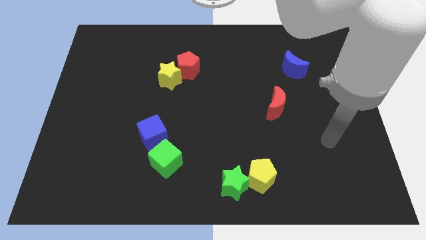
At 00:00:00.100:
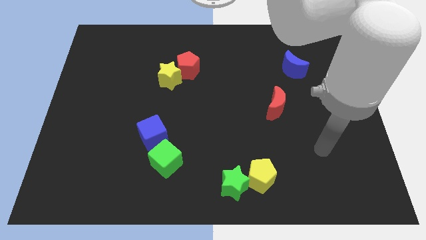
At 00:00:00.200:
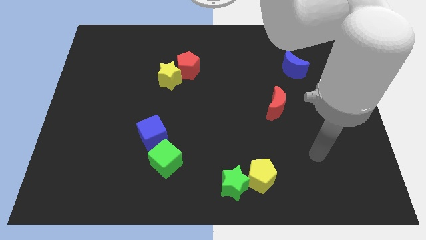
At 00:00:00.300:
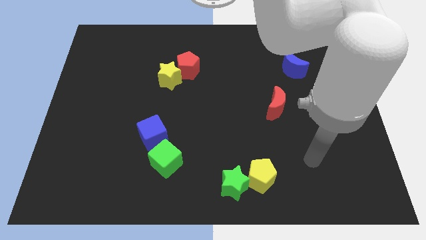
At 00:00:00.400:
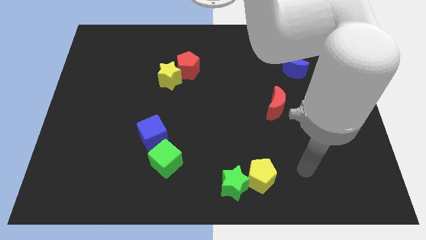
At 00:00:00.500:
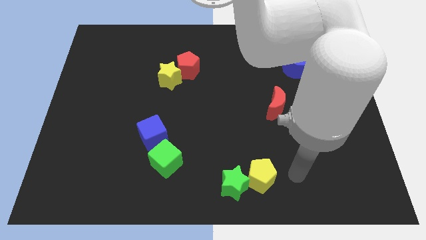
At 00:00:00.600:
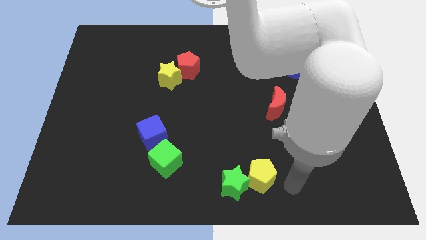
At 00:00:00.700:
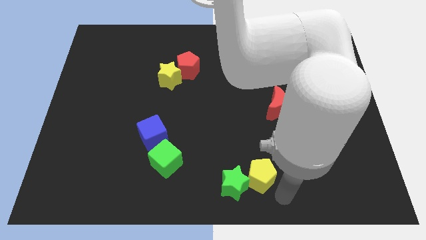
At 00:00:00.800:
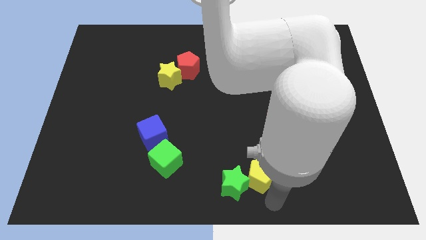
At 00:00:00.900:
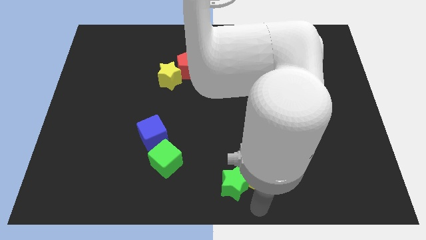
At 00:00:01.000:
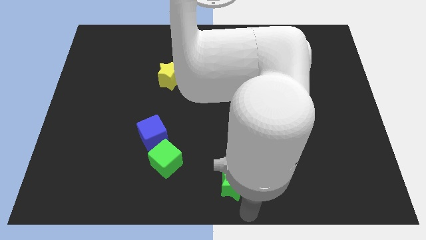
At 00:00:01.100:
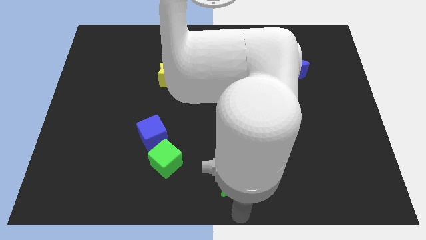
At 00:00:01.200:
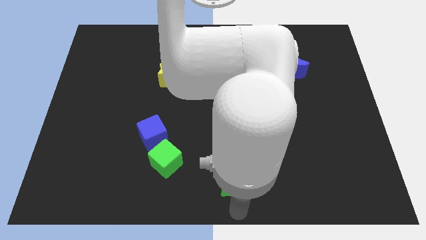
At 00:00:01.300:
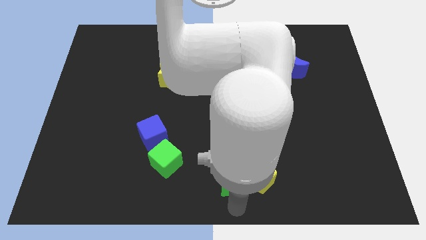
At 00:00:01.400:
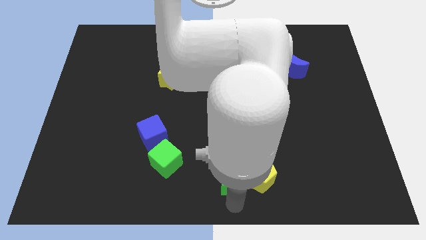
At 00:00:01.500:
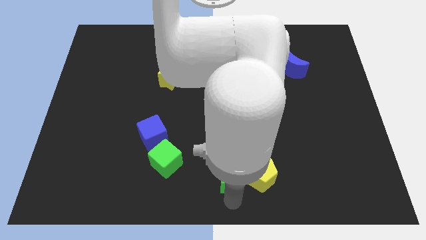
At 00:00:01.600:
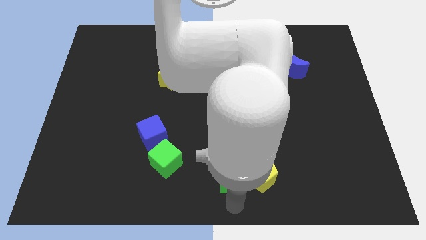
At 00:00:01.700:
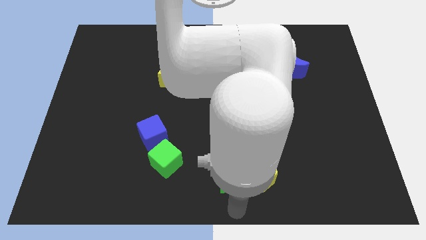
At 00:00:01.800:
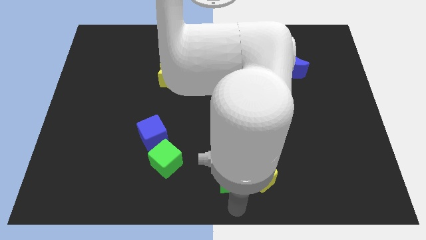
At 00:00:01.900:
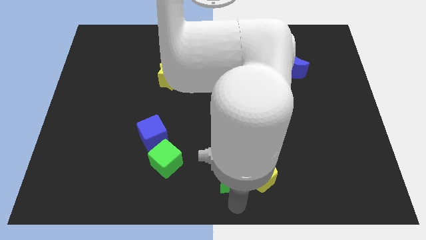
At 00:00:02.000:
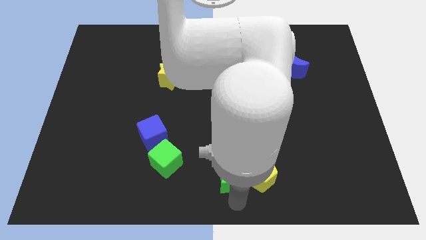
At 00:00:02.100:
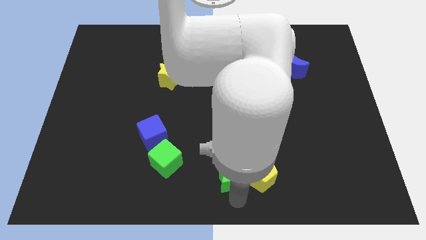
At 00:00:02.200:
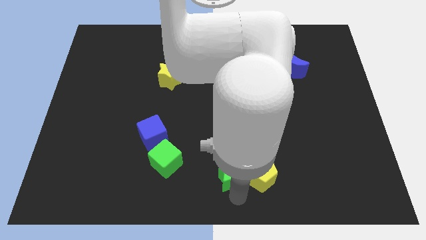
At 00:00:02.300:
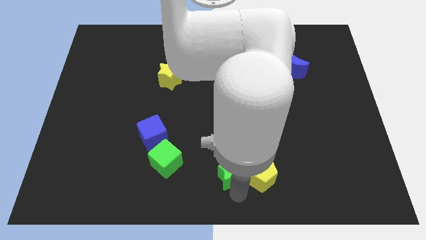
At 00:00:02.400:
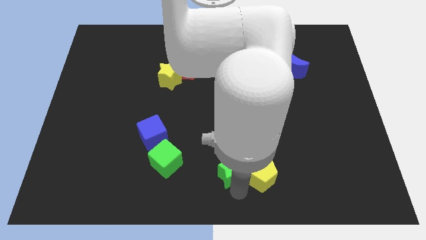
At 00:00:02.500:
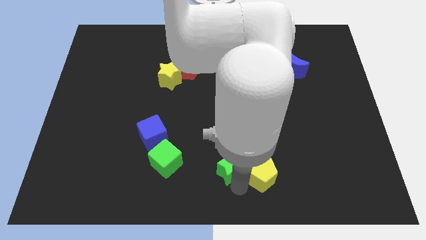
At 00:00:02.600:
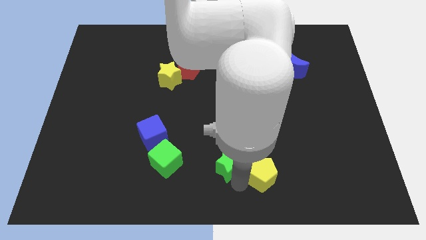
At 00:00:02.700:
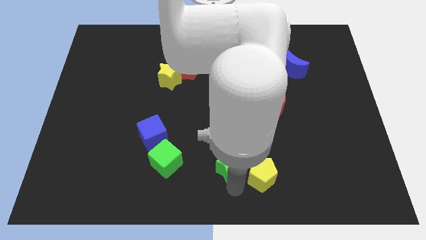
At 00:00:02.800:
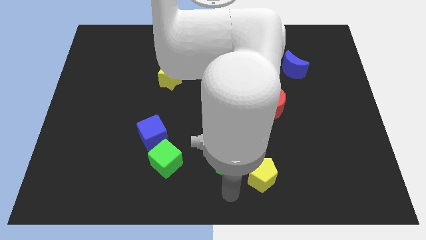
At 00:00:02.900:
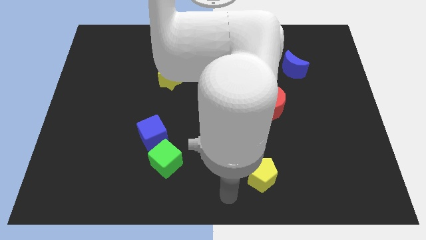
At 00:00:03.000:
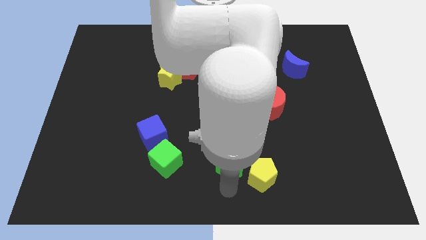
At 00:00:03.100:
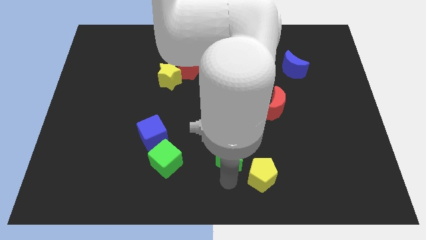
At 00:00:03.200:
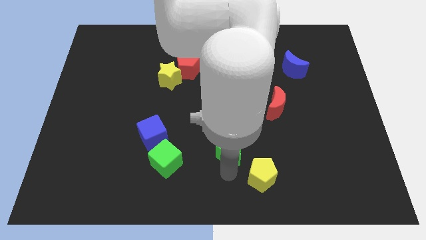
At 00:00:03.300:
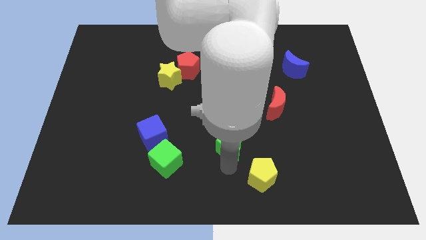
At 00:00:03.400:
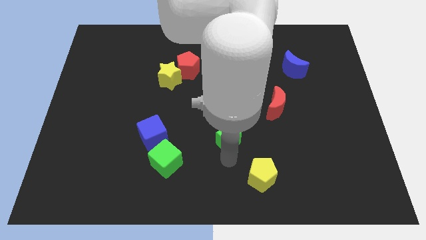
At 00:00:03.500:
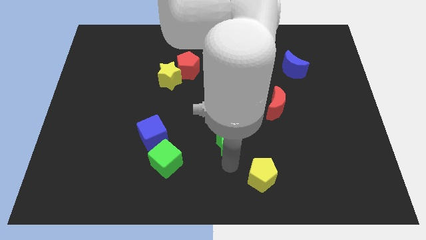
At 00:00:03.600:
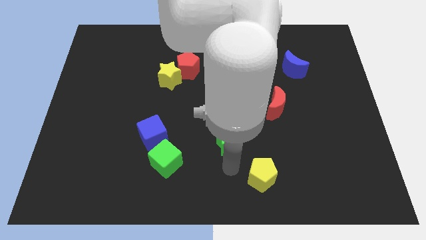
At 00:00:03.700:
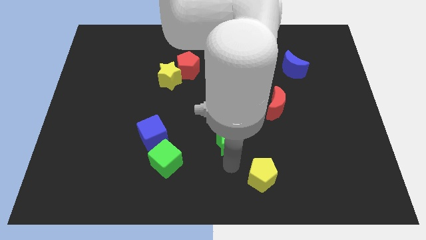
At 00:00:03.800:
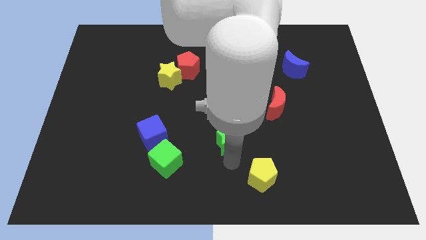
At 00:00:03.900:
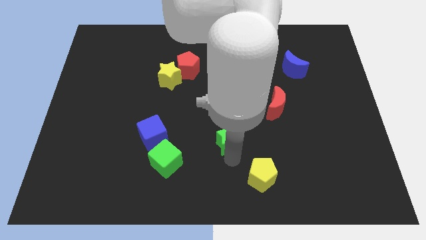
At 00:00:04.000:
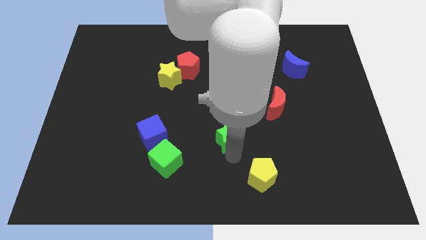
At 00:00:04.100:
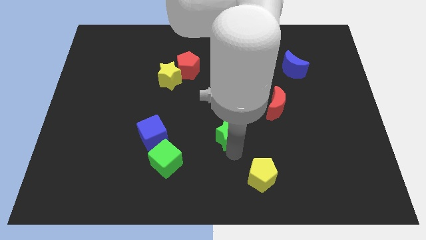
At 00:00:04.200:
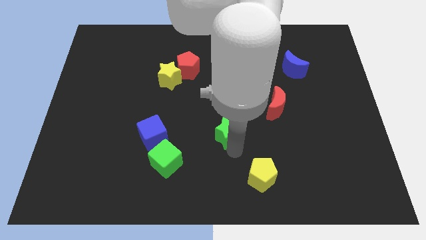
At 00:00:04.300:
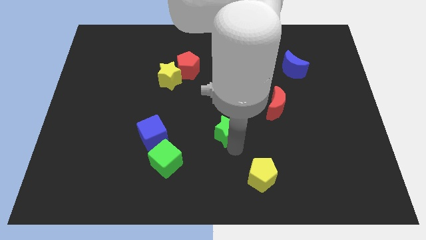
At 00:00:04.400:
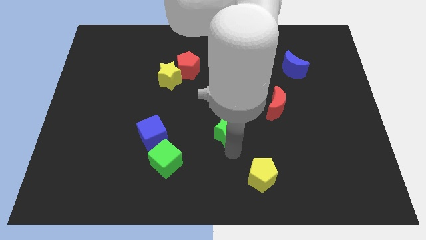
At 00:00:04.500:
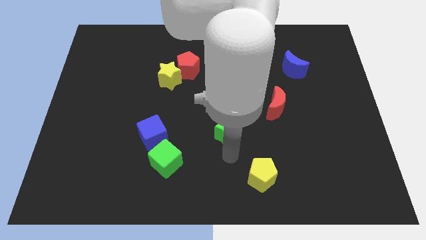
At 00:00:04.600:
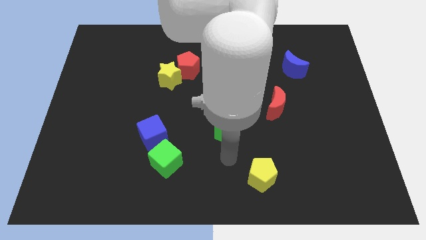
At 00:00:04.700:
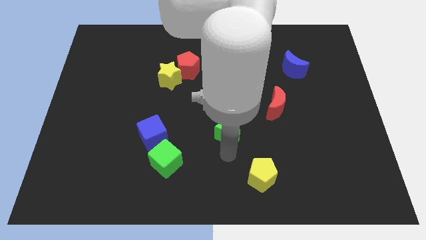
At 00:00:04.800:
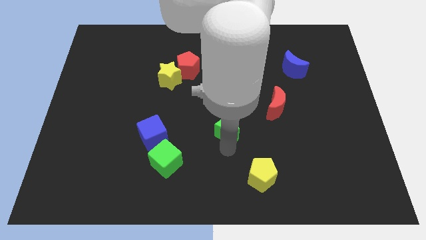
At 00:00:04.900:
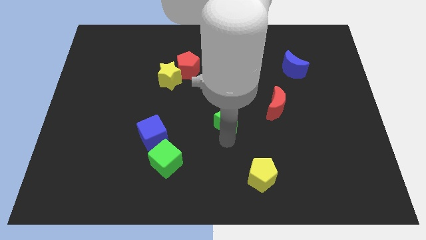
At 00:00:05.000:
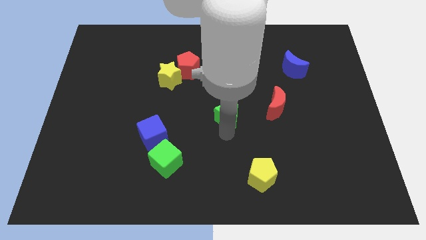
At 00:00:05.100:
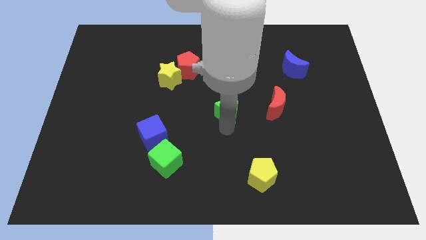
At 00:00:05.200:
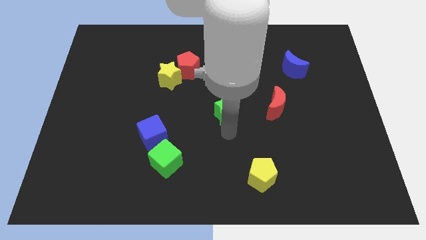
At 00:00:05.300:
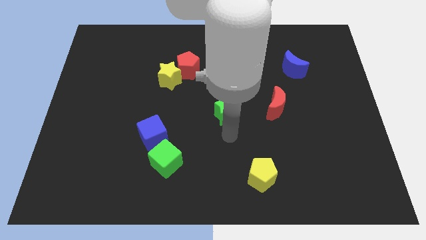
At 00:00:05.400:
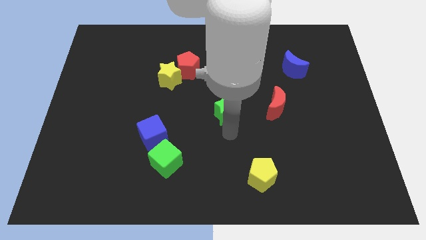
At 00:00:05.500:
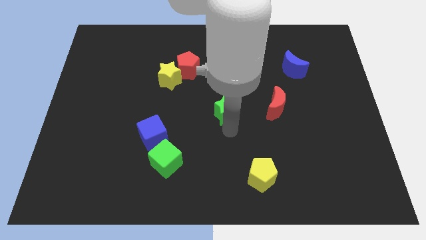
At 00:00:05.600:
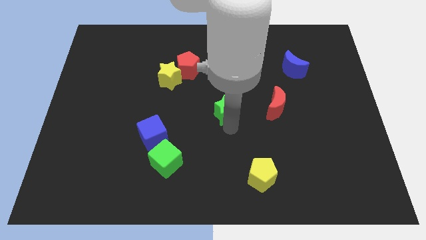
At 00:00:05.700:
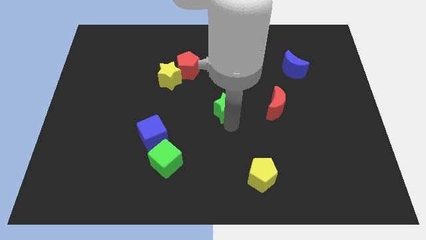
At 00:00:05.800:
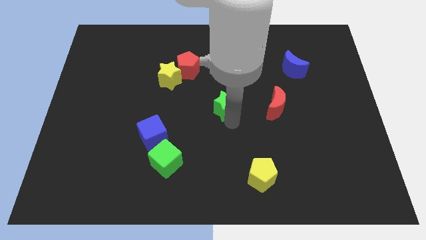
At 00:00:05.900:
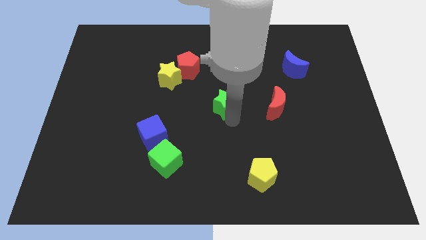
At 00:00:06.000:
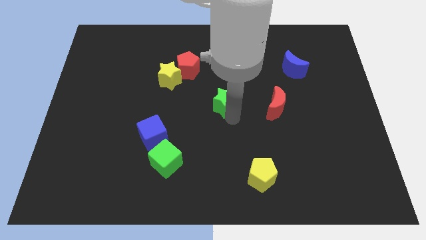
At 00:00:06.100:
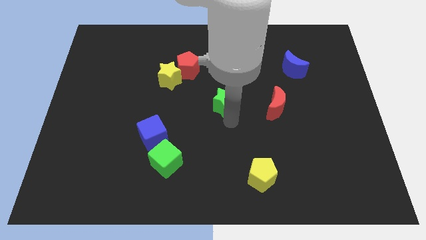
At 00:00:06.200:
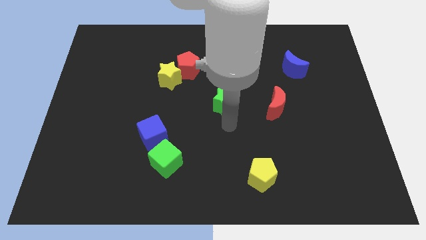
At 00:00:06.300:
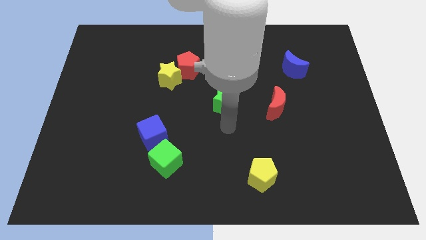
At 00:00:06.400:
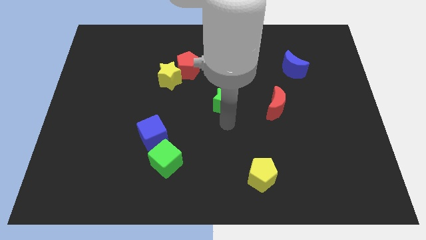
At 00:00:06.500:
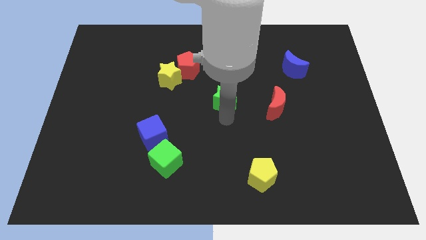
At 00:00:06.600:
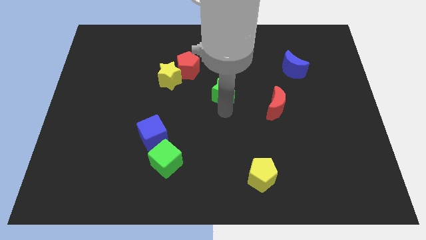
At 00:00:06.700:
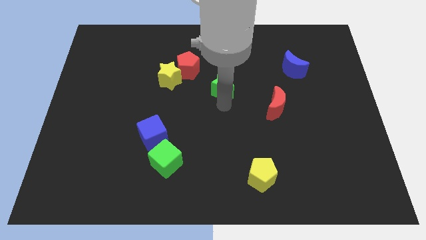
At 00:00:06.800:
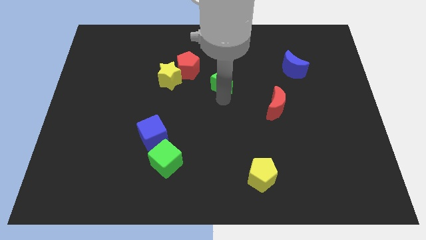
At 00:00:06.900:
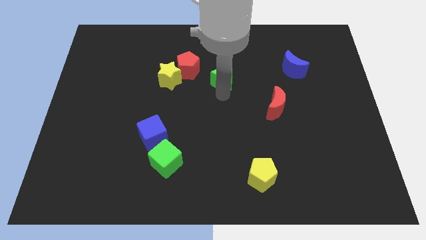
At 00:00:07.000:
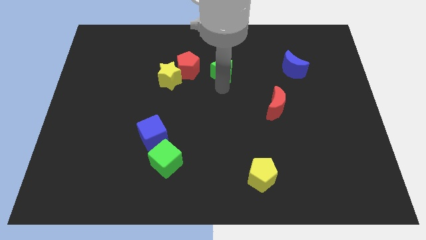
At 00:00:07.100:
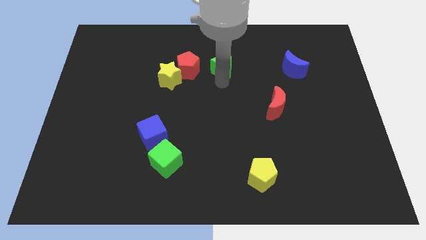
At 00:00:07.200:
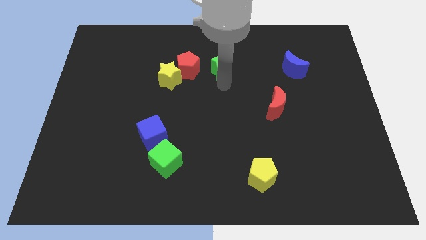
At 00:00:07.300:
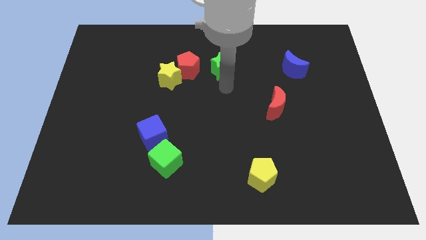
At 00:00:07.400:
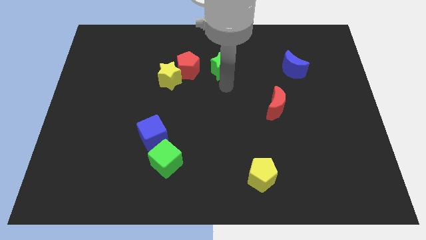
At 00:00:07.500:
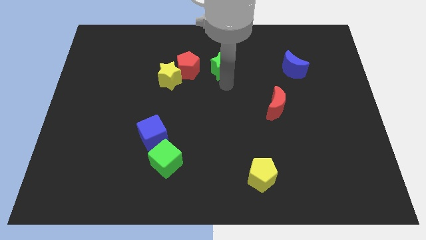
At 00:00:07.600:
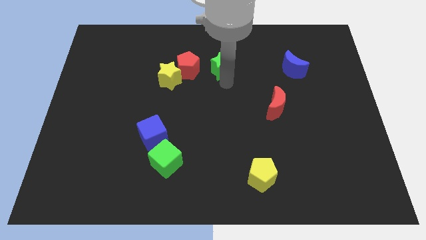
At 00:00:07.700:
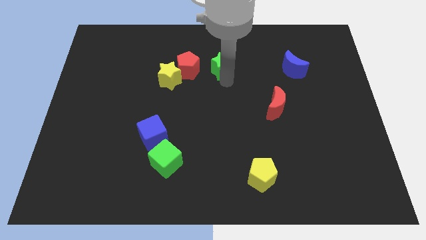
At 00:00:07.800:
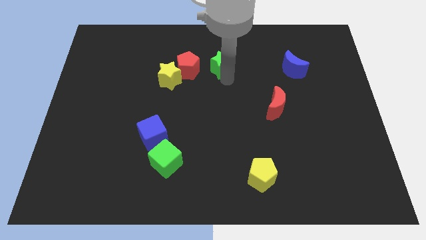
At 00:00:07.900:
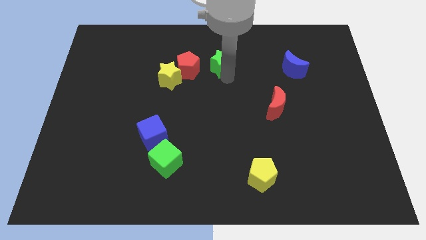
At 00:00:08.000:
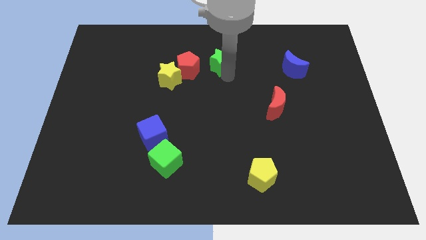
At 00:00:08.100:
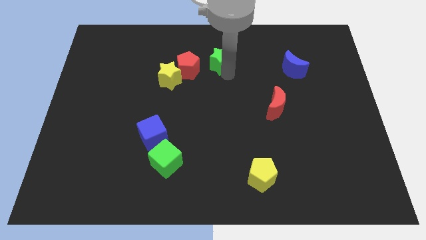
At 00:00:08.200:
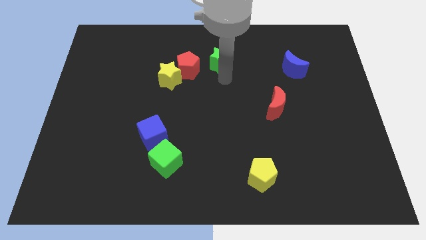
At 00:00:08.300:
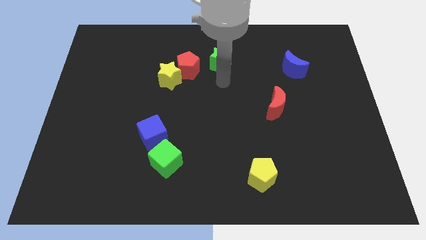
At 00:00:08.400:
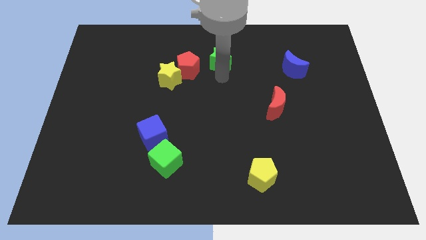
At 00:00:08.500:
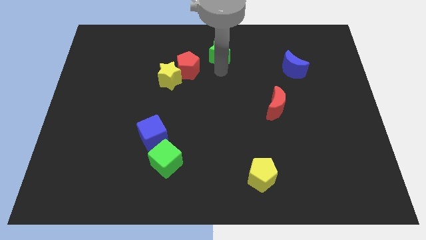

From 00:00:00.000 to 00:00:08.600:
slide the green star to the top side
